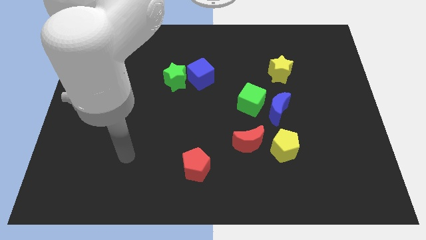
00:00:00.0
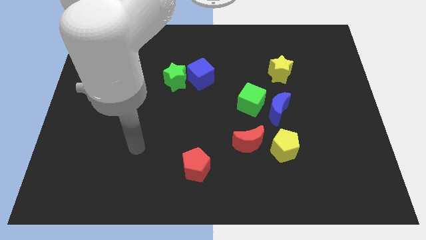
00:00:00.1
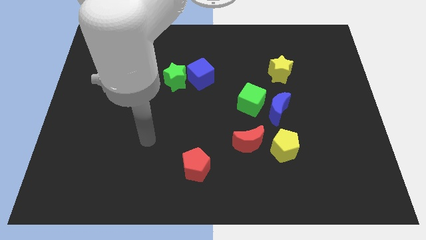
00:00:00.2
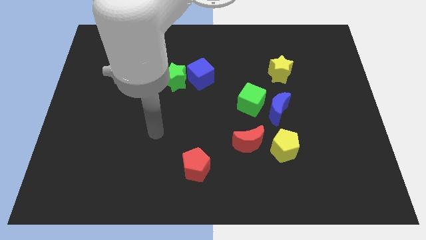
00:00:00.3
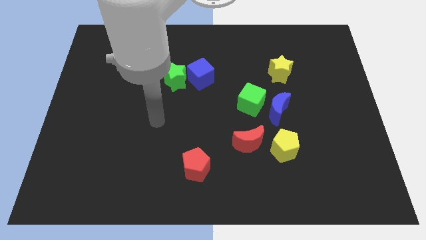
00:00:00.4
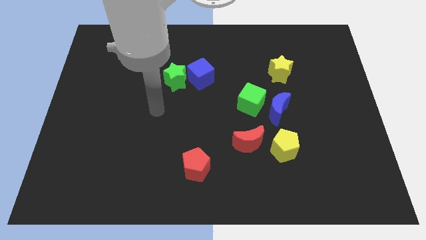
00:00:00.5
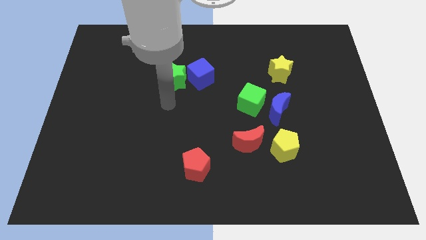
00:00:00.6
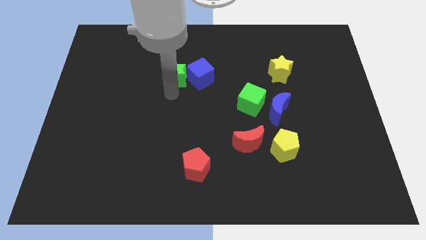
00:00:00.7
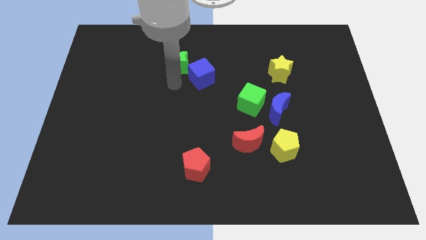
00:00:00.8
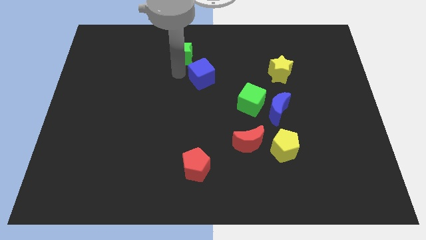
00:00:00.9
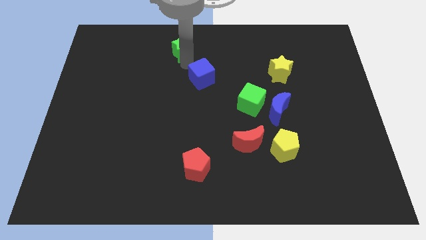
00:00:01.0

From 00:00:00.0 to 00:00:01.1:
separate the blue cube from the green star

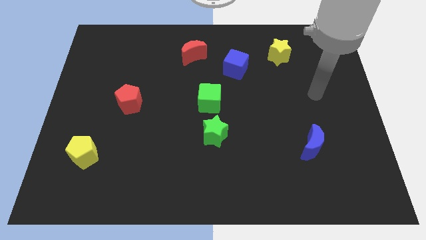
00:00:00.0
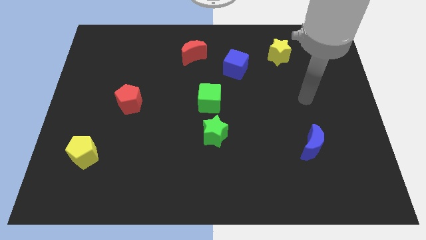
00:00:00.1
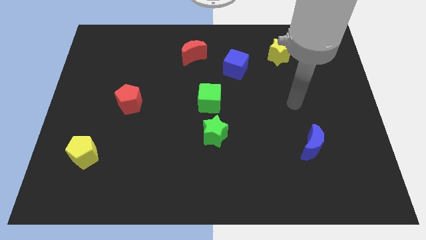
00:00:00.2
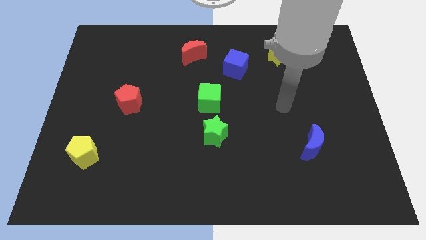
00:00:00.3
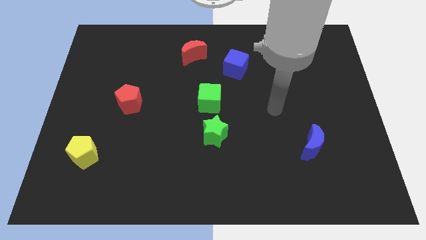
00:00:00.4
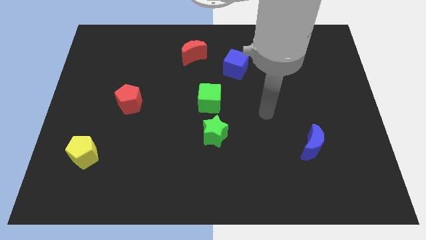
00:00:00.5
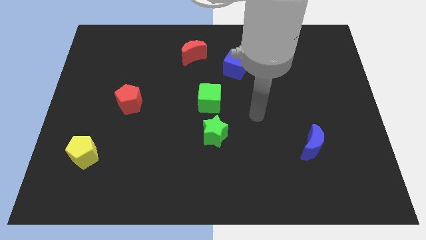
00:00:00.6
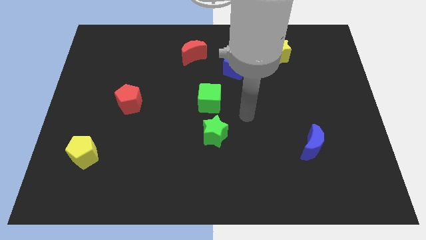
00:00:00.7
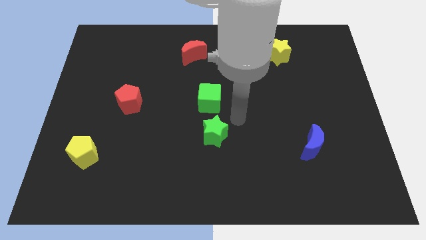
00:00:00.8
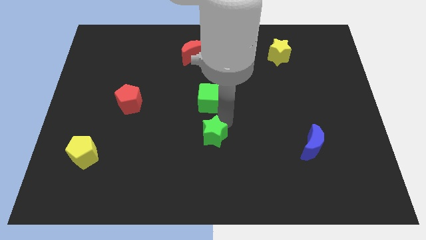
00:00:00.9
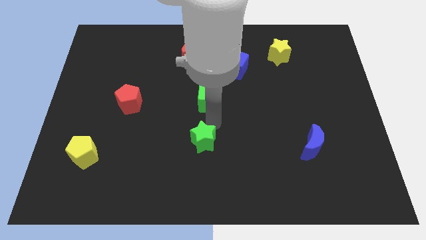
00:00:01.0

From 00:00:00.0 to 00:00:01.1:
separate the green cube from the green star

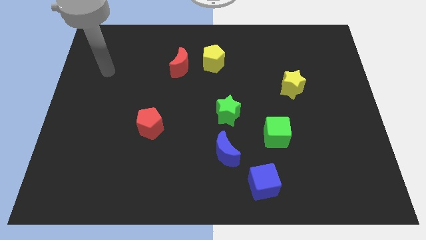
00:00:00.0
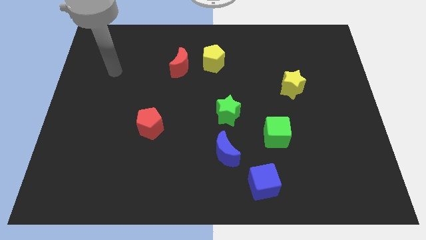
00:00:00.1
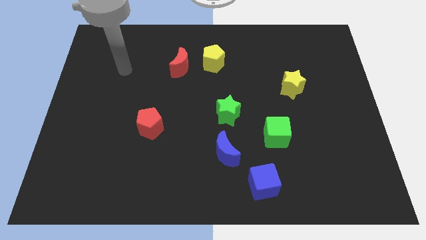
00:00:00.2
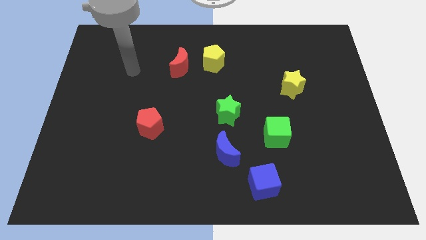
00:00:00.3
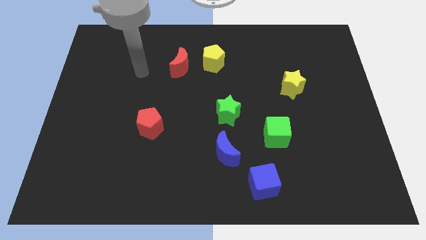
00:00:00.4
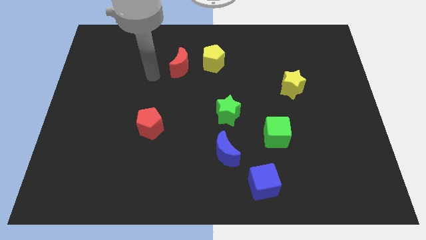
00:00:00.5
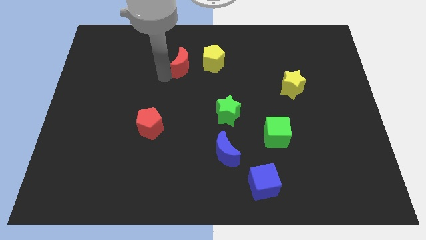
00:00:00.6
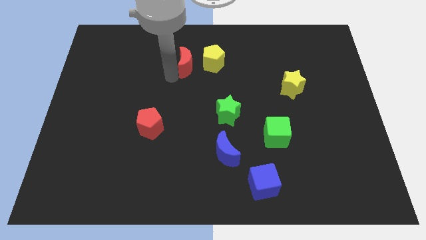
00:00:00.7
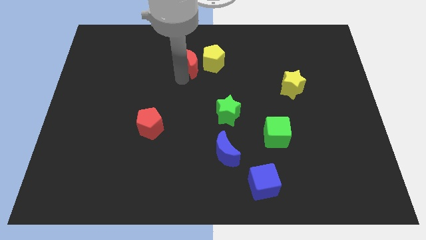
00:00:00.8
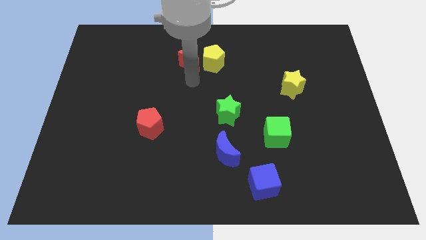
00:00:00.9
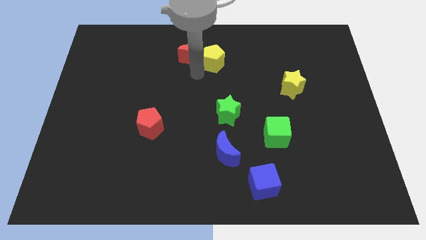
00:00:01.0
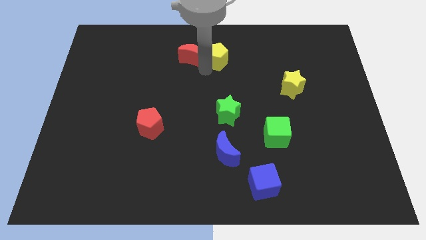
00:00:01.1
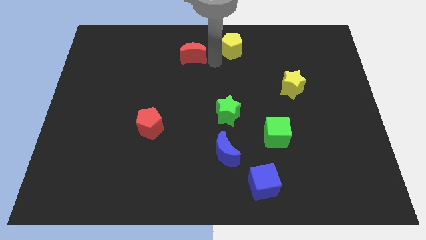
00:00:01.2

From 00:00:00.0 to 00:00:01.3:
pull the red moon apart from the yellow pentagon

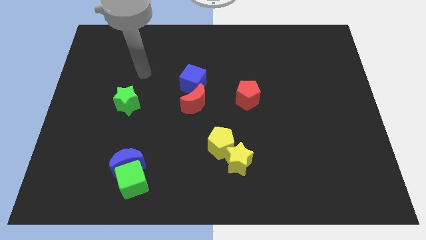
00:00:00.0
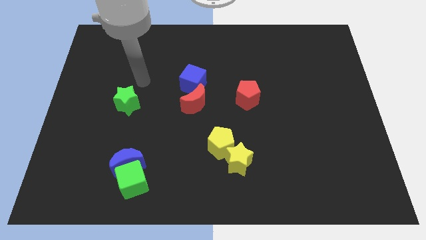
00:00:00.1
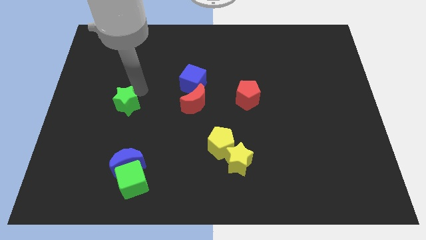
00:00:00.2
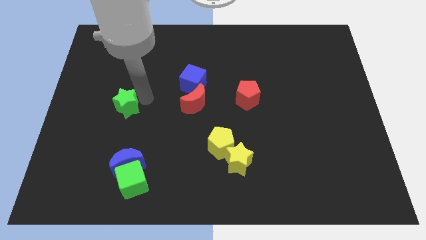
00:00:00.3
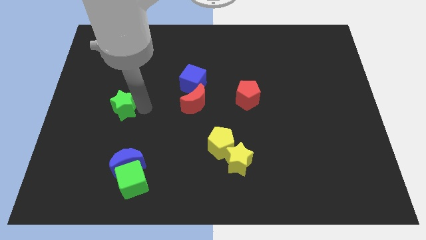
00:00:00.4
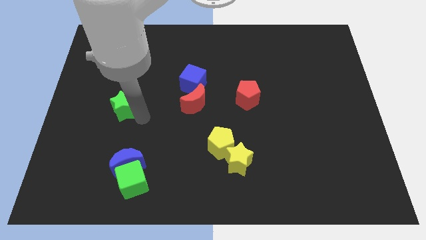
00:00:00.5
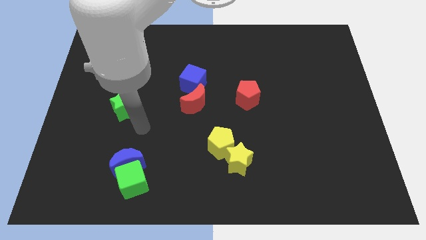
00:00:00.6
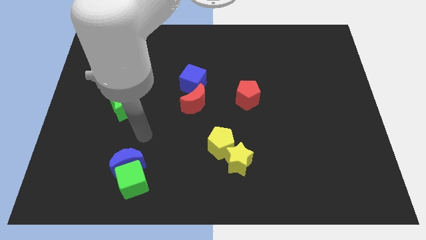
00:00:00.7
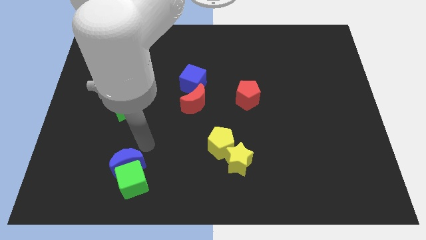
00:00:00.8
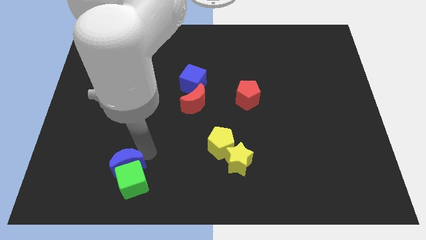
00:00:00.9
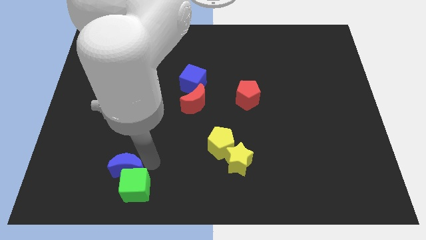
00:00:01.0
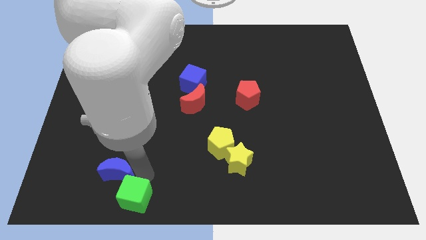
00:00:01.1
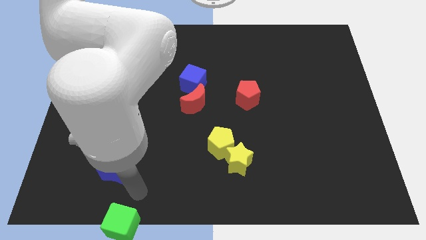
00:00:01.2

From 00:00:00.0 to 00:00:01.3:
move the blue moon away from the green cube

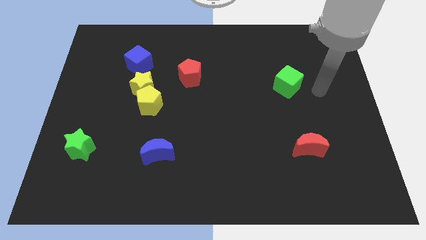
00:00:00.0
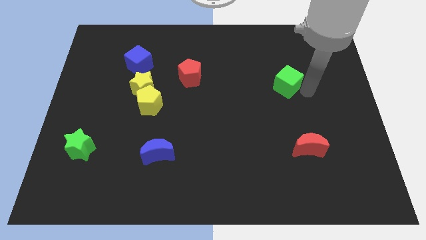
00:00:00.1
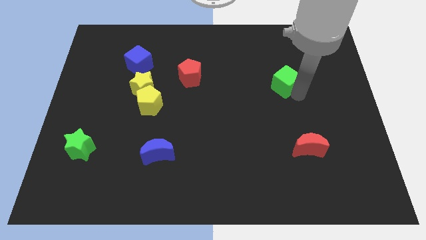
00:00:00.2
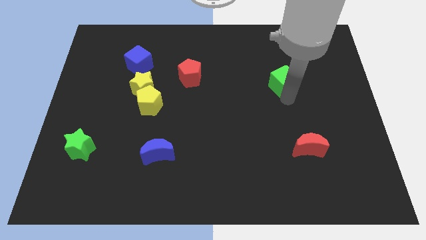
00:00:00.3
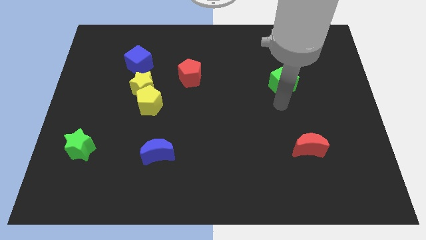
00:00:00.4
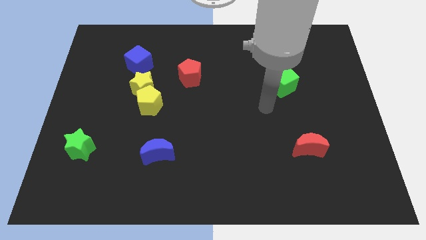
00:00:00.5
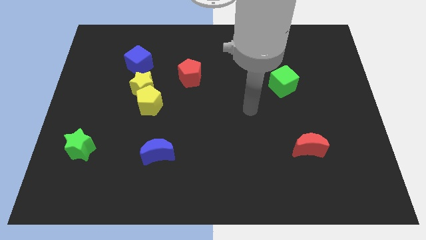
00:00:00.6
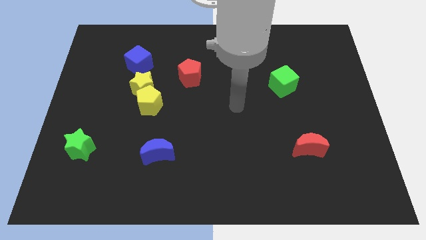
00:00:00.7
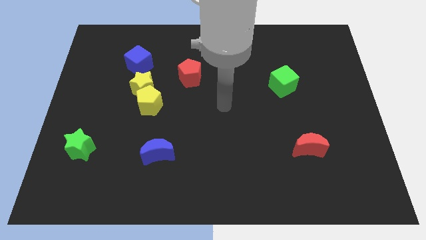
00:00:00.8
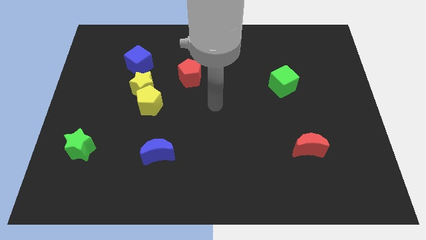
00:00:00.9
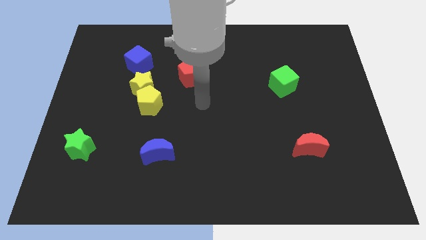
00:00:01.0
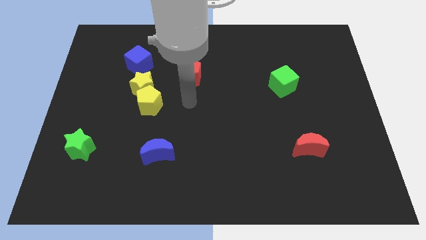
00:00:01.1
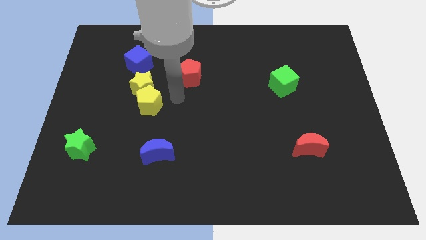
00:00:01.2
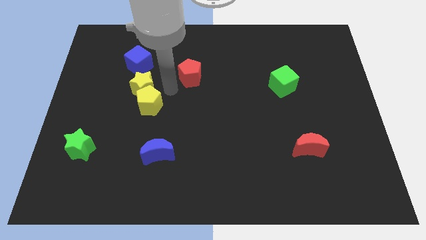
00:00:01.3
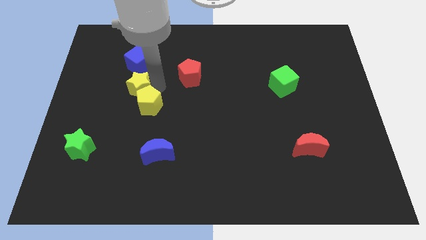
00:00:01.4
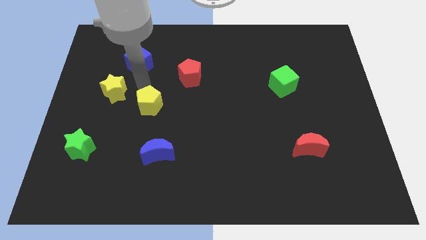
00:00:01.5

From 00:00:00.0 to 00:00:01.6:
separate the yellow pentagon from the yellow star

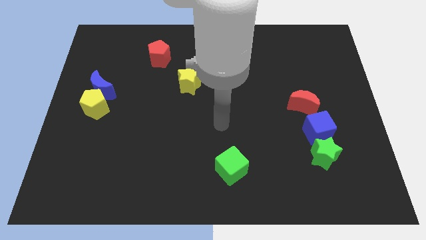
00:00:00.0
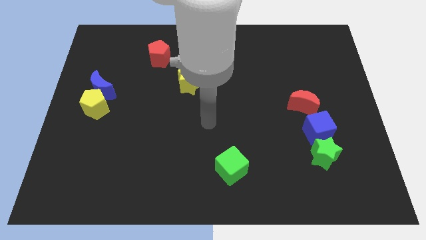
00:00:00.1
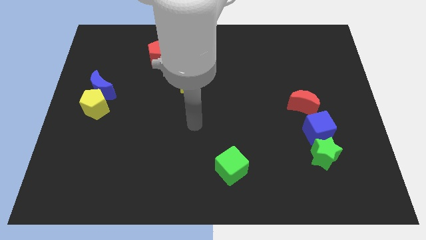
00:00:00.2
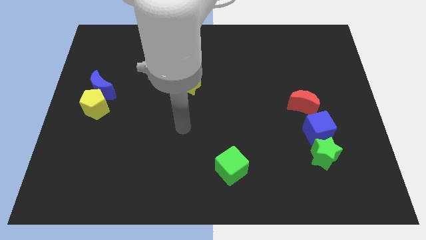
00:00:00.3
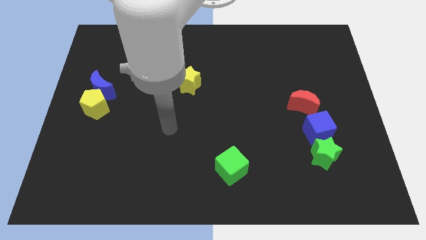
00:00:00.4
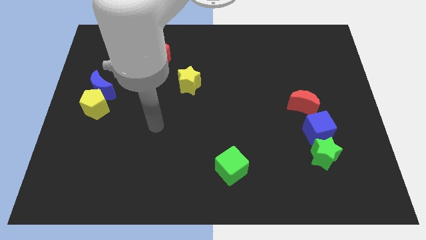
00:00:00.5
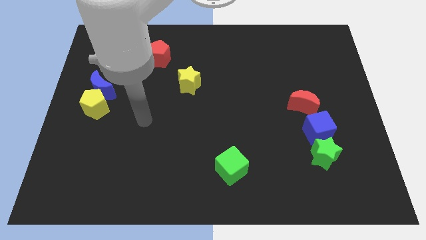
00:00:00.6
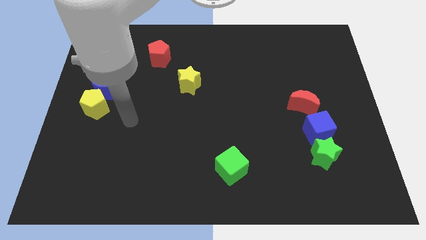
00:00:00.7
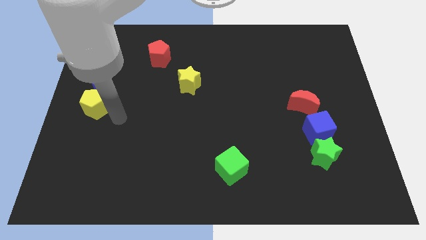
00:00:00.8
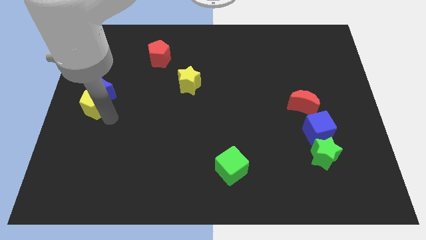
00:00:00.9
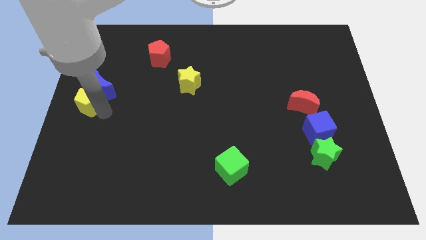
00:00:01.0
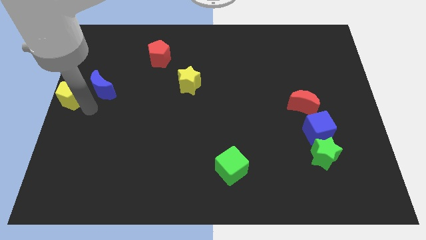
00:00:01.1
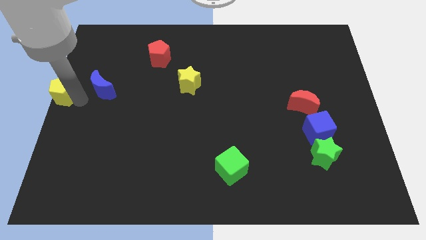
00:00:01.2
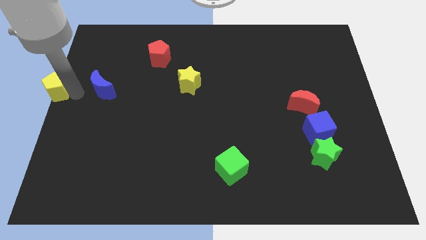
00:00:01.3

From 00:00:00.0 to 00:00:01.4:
pull the blue moon apart from the yellow pentagon

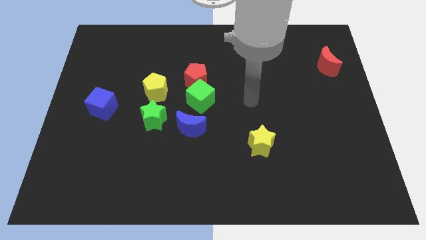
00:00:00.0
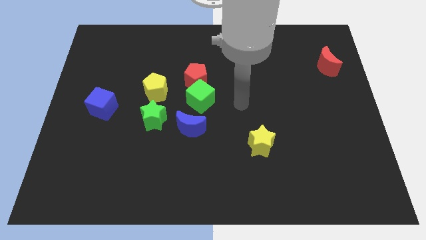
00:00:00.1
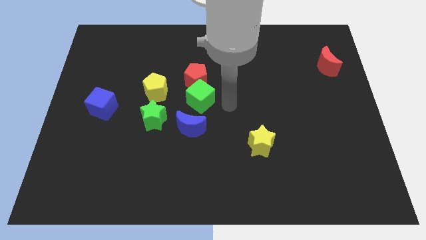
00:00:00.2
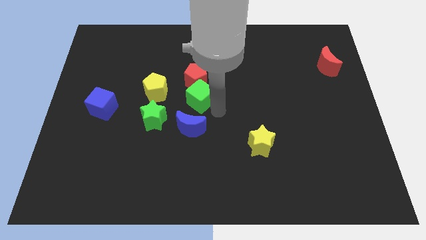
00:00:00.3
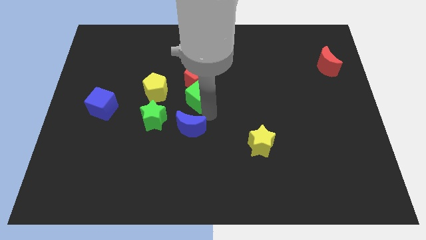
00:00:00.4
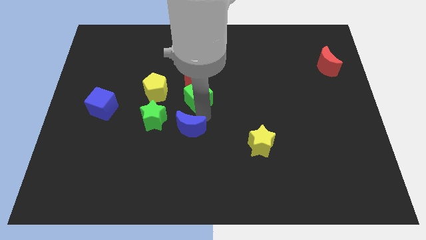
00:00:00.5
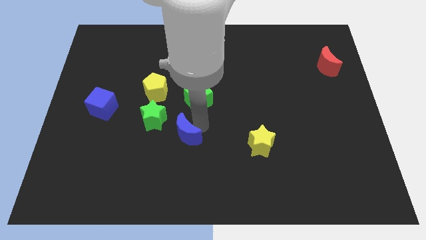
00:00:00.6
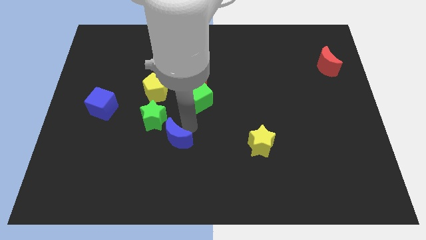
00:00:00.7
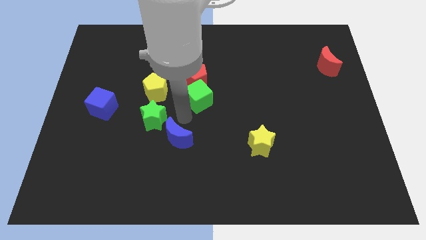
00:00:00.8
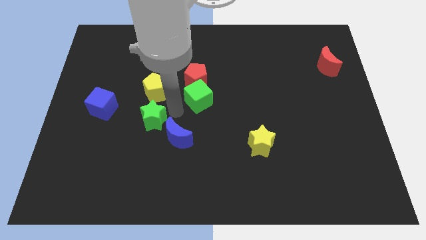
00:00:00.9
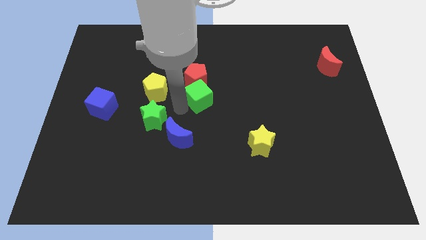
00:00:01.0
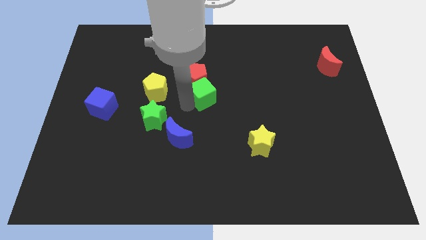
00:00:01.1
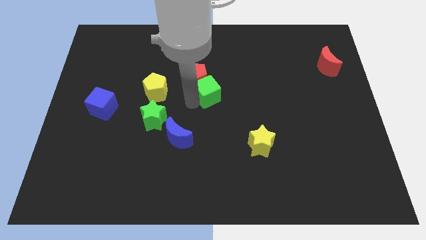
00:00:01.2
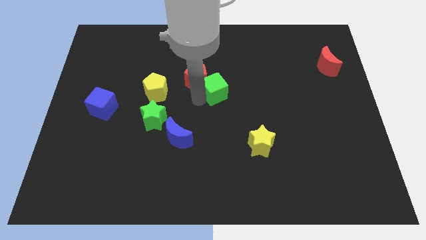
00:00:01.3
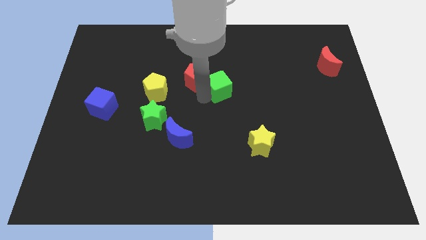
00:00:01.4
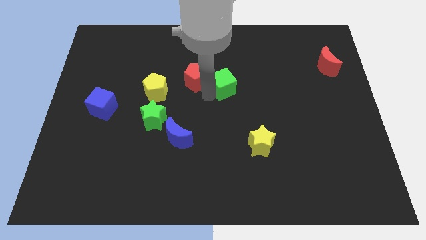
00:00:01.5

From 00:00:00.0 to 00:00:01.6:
pull the green cube apart from the red pentagon and blue moon
